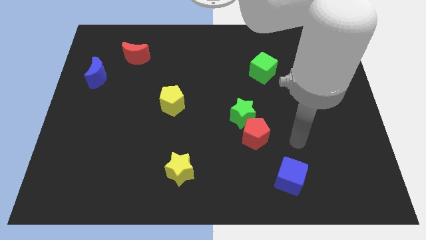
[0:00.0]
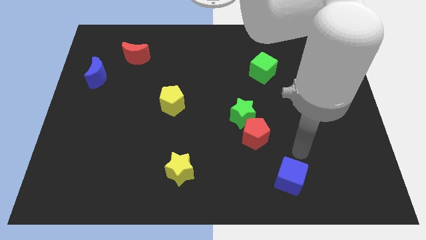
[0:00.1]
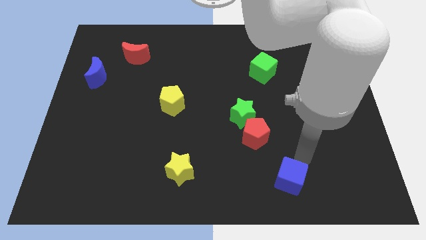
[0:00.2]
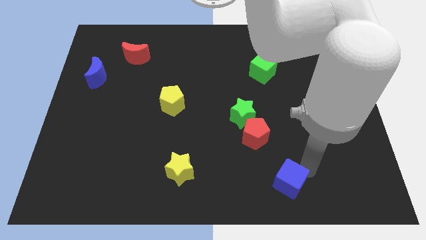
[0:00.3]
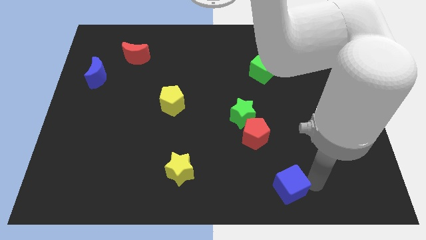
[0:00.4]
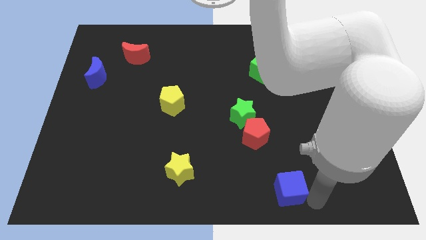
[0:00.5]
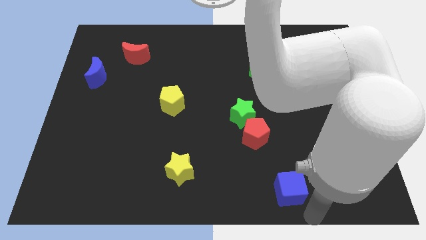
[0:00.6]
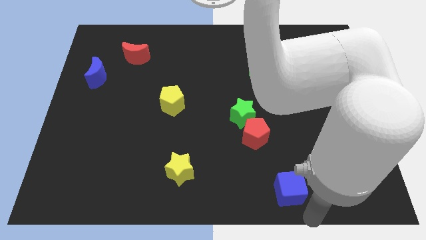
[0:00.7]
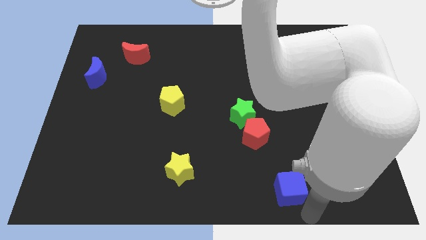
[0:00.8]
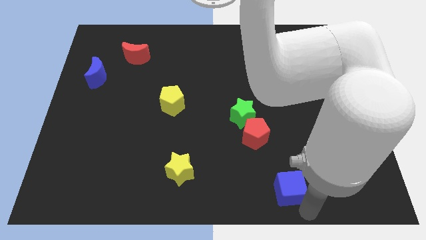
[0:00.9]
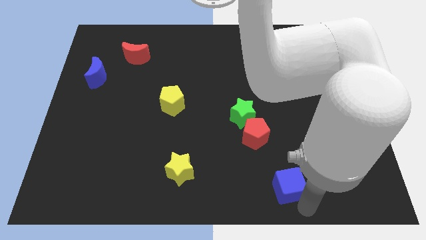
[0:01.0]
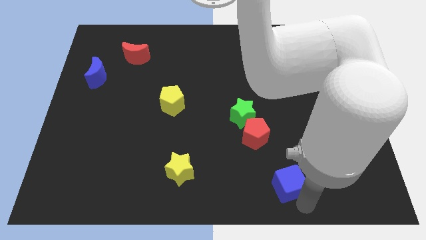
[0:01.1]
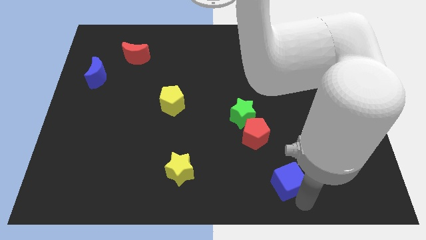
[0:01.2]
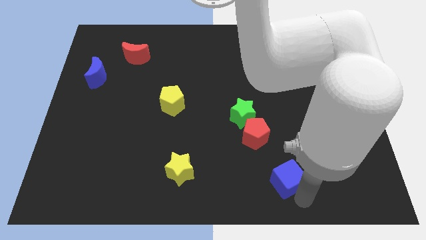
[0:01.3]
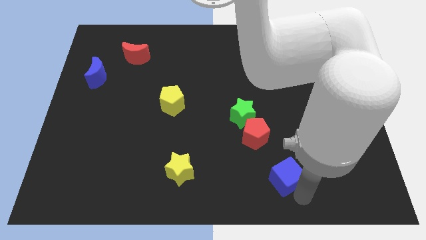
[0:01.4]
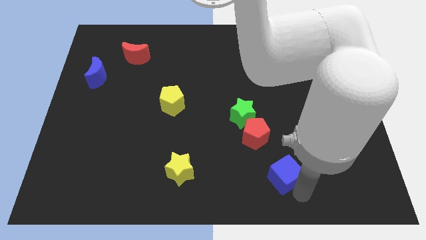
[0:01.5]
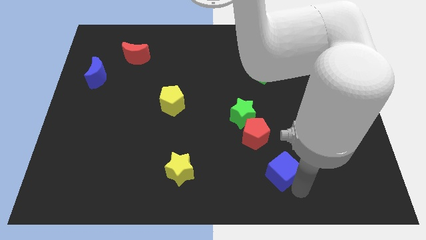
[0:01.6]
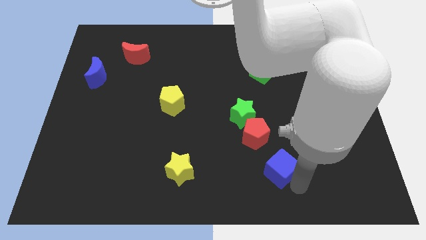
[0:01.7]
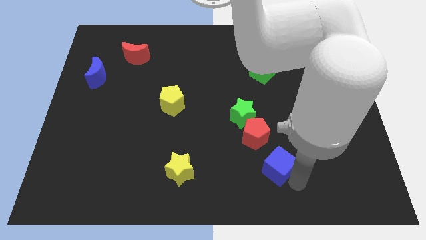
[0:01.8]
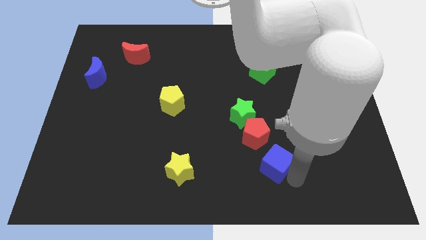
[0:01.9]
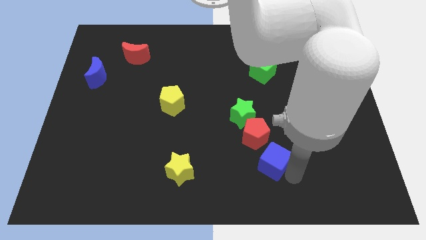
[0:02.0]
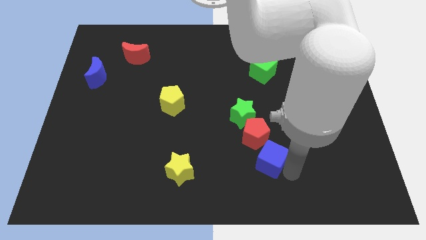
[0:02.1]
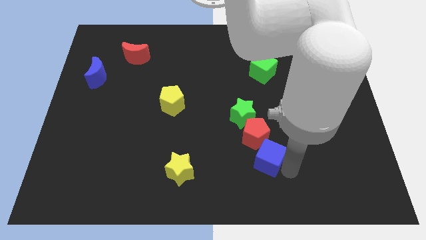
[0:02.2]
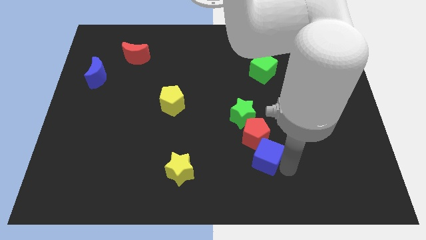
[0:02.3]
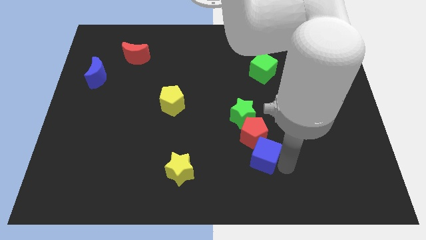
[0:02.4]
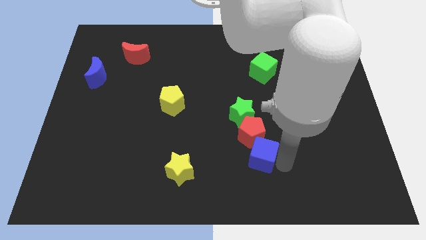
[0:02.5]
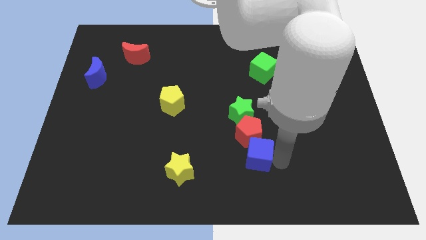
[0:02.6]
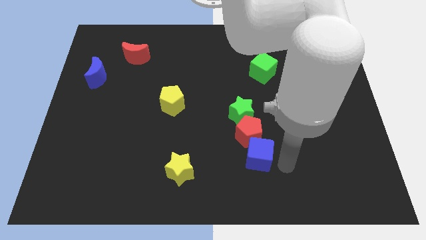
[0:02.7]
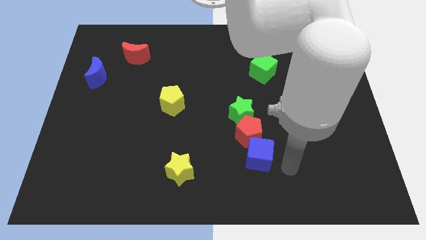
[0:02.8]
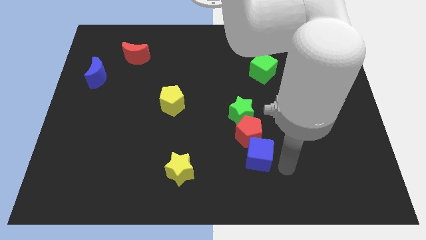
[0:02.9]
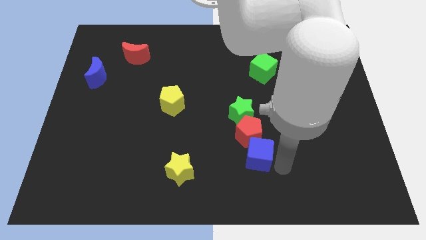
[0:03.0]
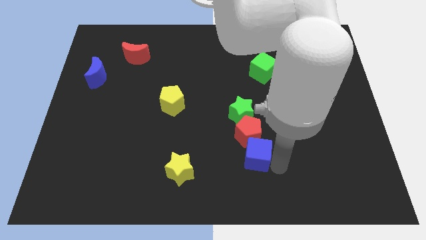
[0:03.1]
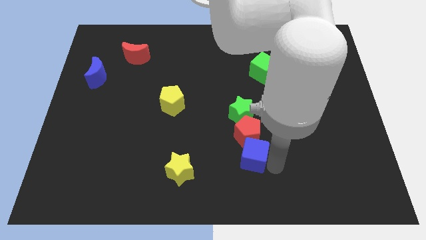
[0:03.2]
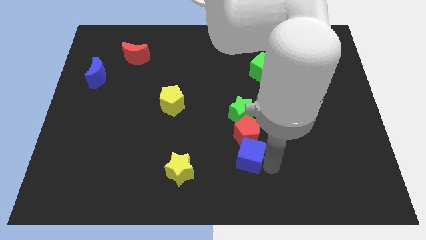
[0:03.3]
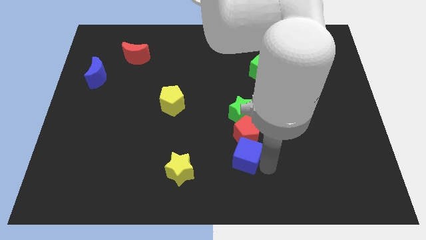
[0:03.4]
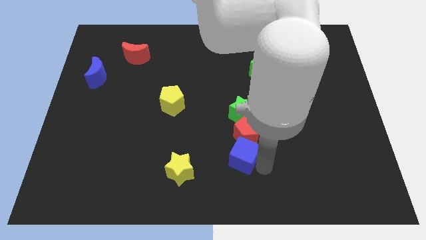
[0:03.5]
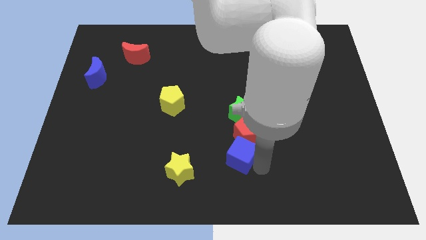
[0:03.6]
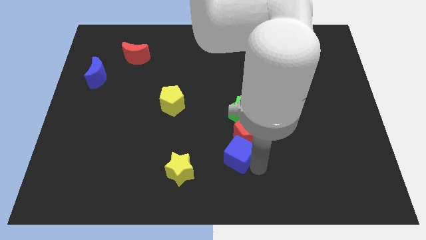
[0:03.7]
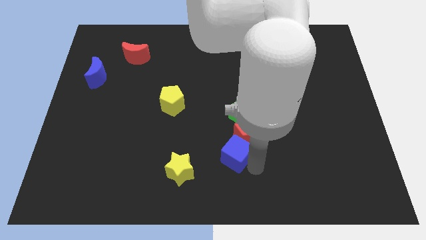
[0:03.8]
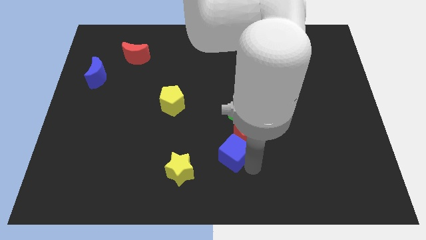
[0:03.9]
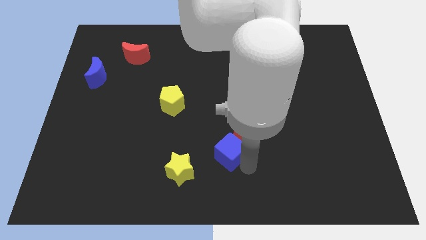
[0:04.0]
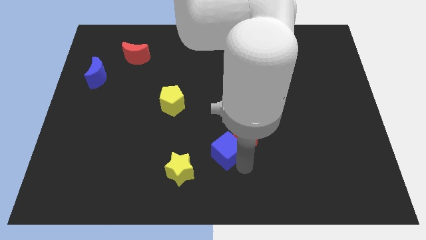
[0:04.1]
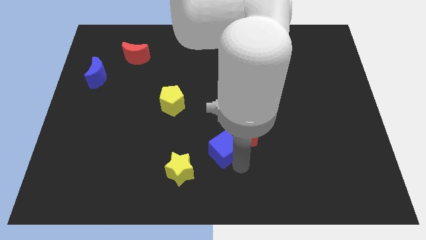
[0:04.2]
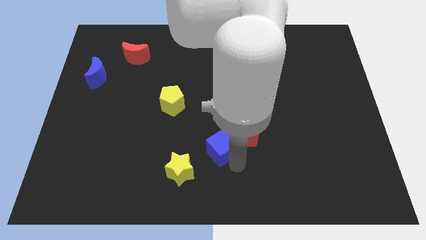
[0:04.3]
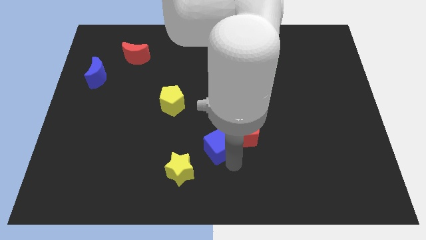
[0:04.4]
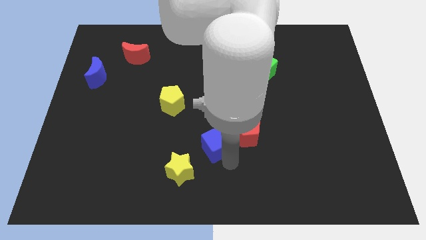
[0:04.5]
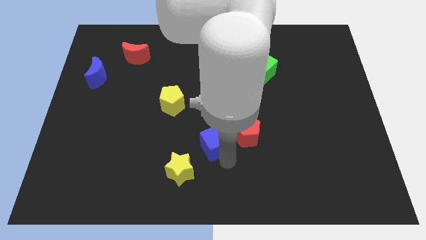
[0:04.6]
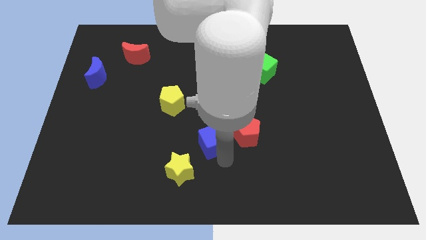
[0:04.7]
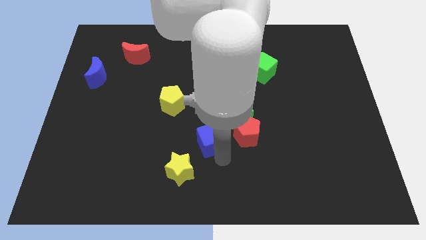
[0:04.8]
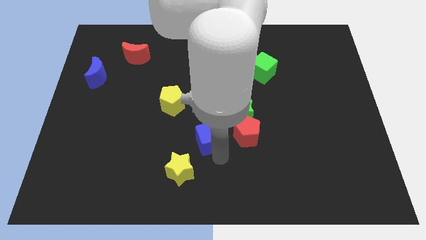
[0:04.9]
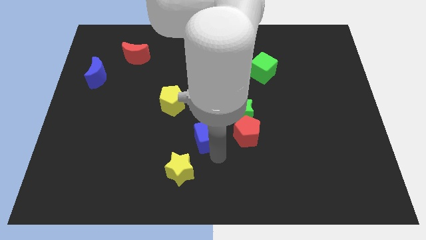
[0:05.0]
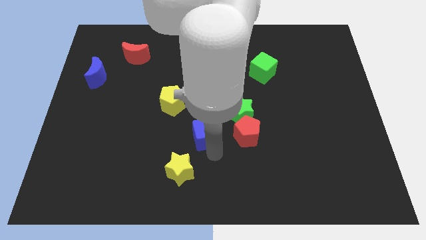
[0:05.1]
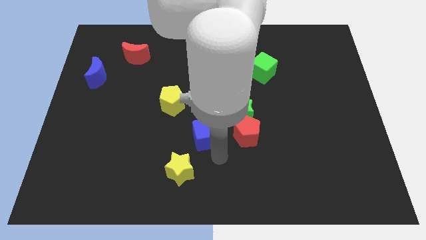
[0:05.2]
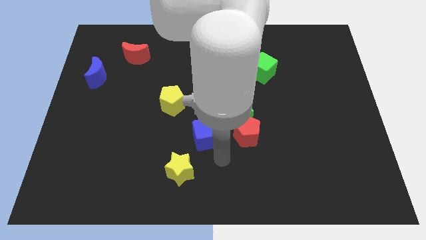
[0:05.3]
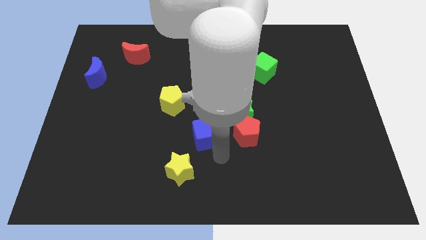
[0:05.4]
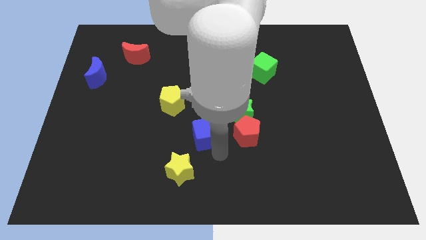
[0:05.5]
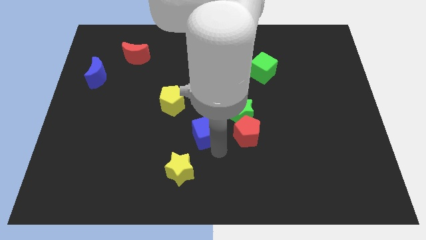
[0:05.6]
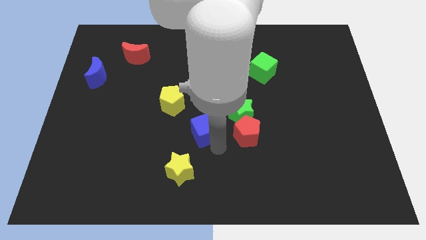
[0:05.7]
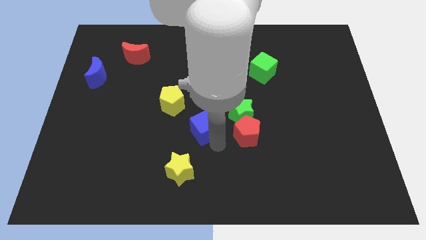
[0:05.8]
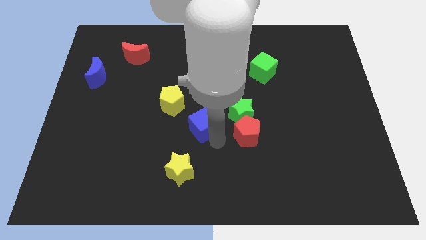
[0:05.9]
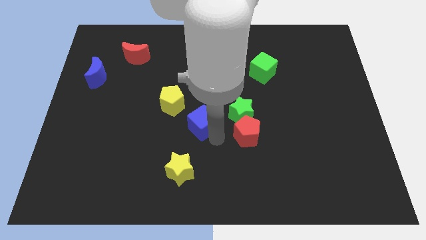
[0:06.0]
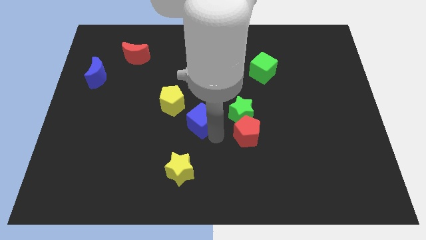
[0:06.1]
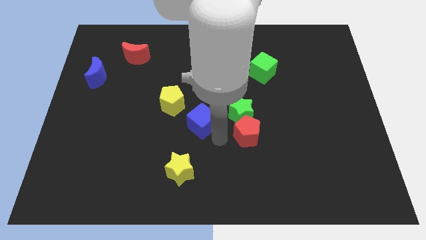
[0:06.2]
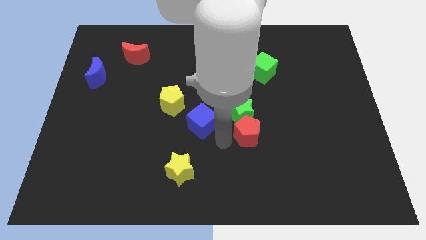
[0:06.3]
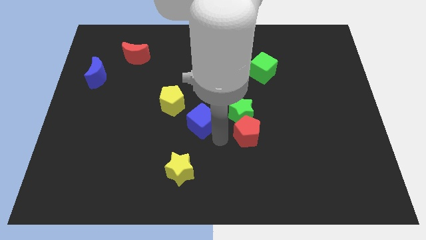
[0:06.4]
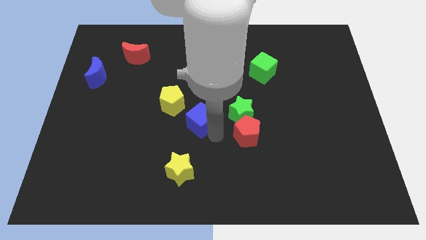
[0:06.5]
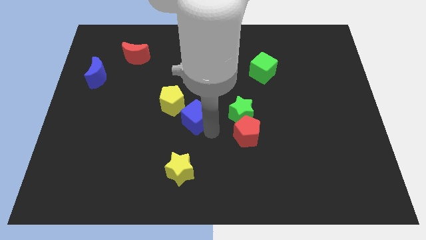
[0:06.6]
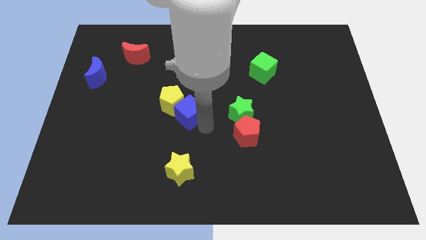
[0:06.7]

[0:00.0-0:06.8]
move the blue cube to the yellow pentagon

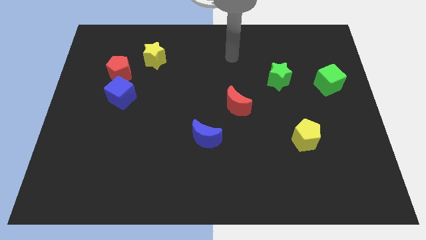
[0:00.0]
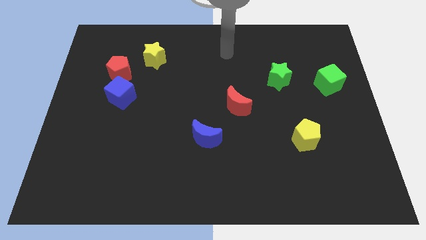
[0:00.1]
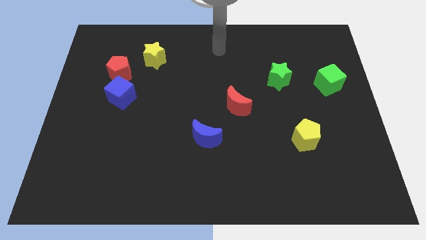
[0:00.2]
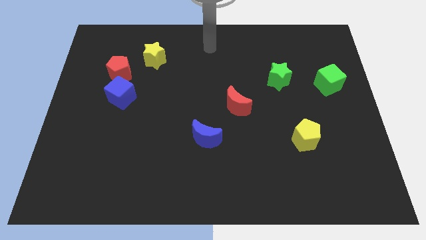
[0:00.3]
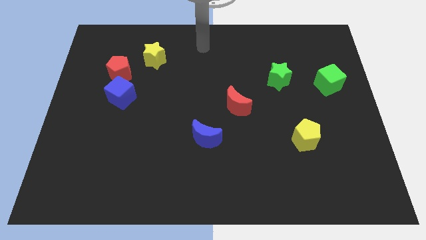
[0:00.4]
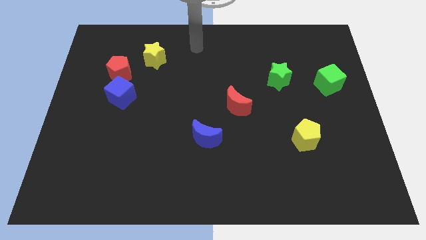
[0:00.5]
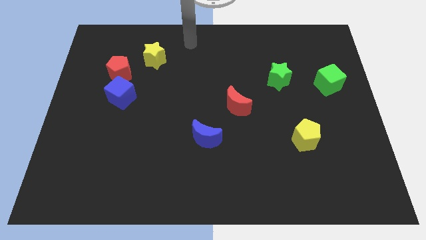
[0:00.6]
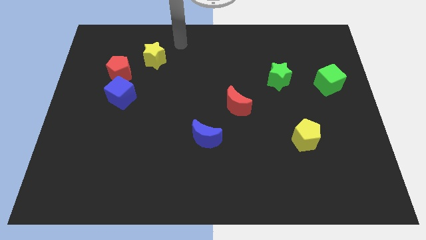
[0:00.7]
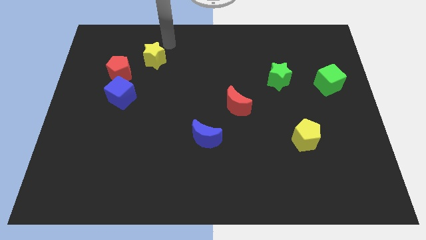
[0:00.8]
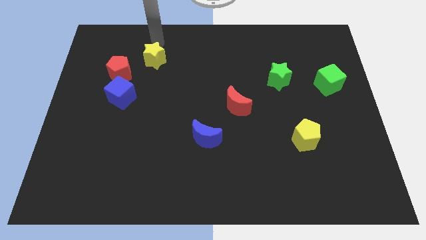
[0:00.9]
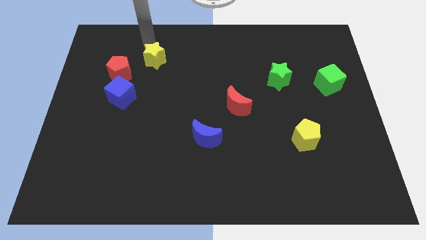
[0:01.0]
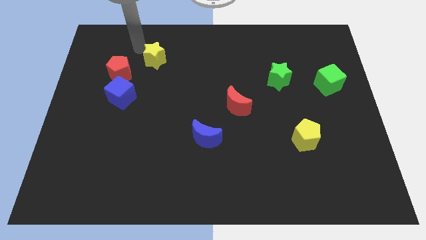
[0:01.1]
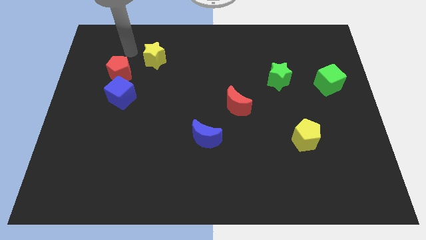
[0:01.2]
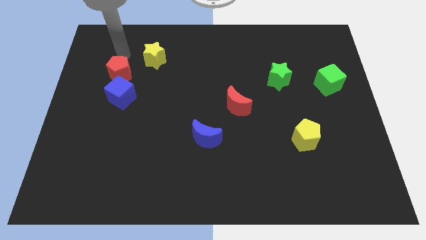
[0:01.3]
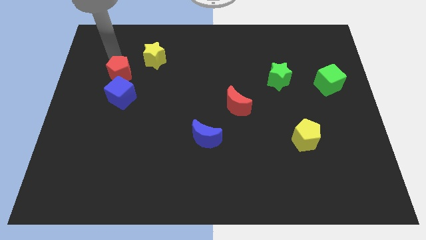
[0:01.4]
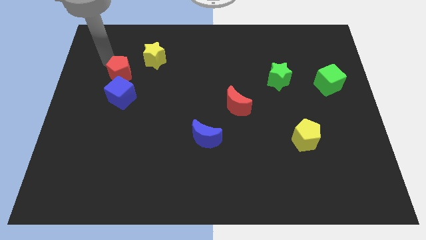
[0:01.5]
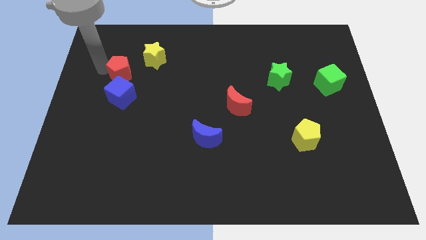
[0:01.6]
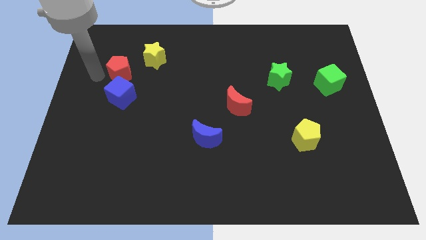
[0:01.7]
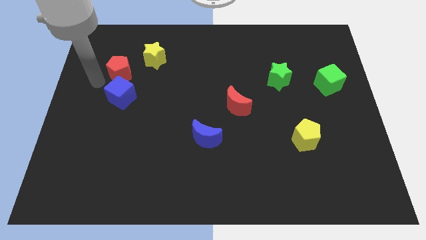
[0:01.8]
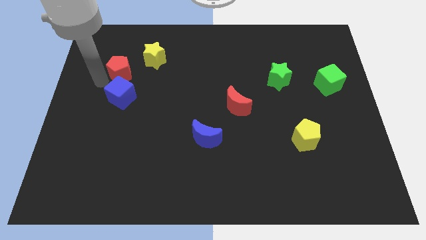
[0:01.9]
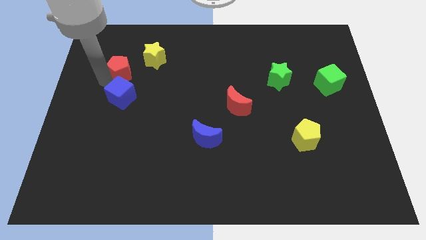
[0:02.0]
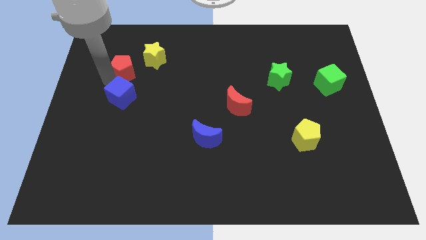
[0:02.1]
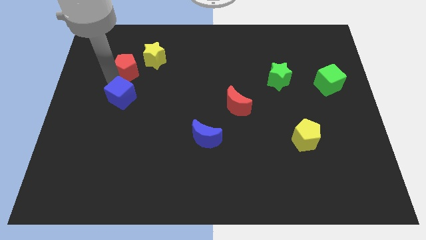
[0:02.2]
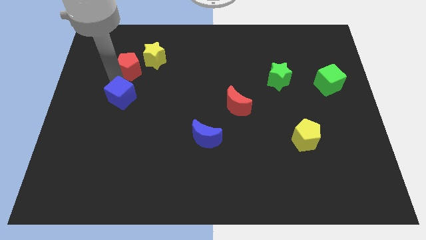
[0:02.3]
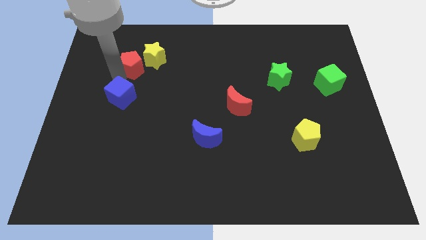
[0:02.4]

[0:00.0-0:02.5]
move the red pentagon to the yellow star
